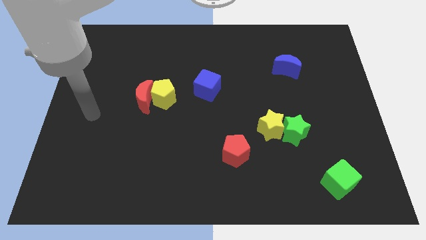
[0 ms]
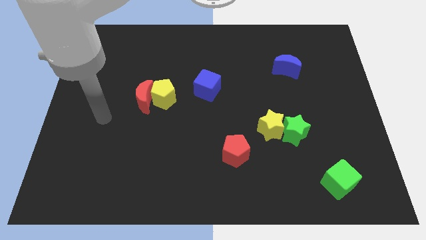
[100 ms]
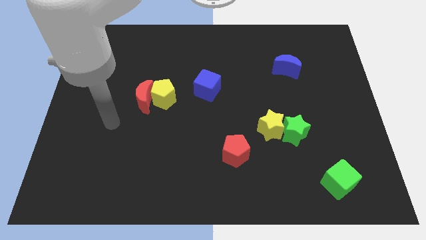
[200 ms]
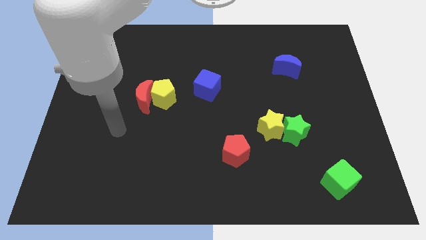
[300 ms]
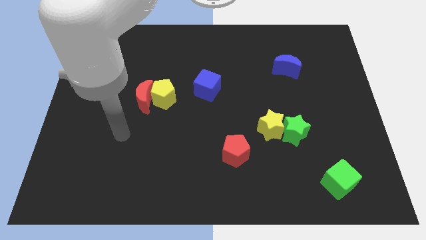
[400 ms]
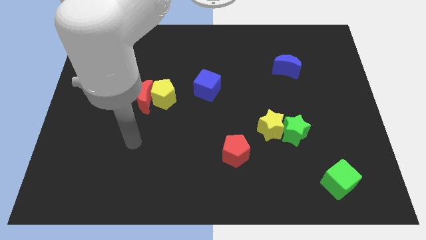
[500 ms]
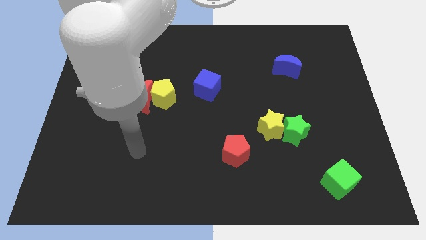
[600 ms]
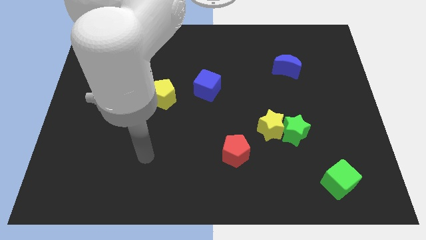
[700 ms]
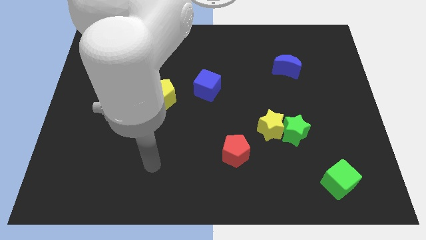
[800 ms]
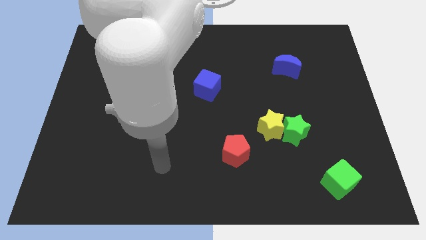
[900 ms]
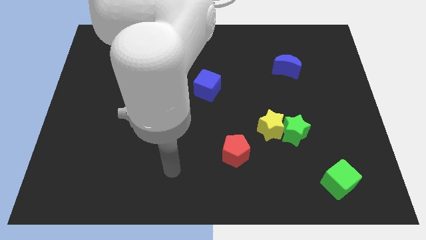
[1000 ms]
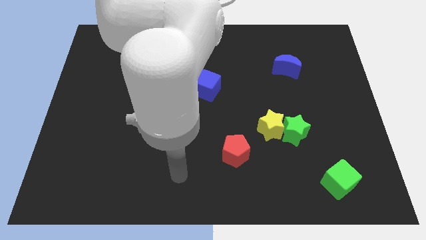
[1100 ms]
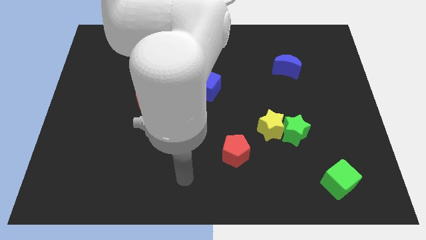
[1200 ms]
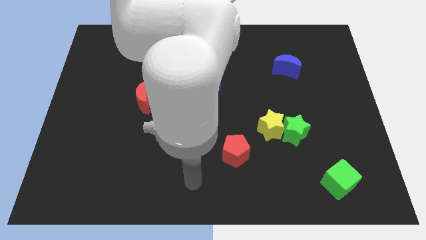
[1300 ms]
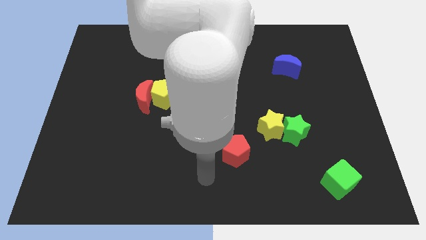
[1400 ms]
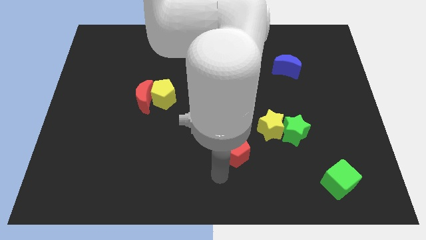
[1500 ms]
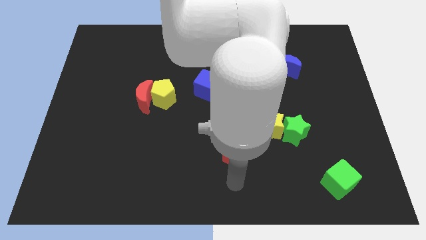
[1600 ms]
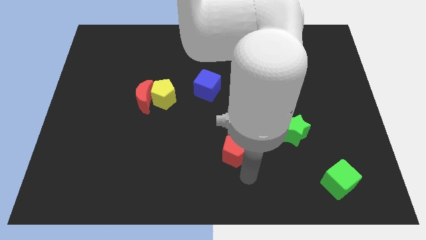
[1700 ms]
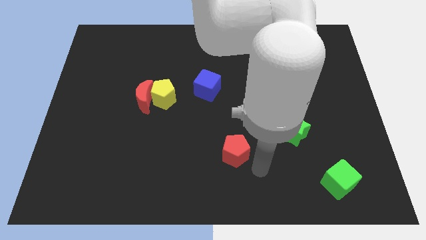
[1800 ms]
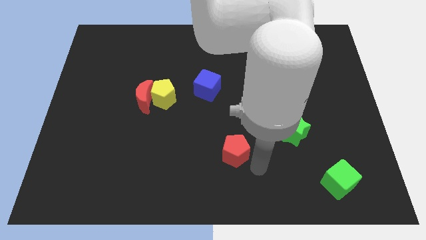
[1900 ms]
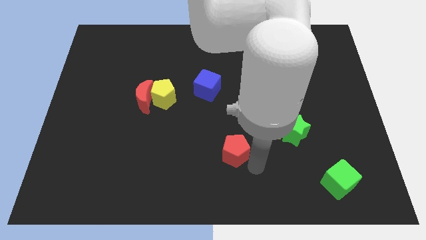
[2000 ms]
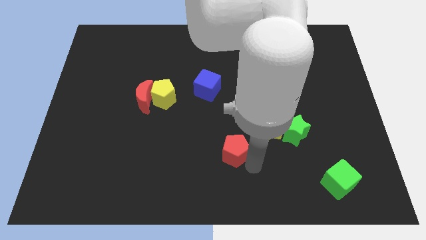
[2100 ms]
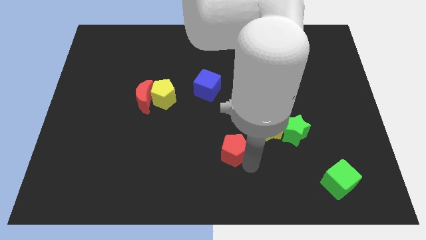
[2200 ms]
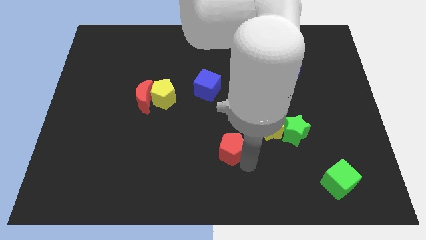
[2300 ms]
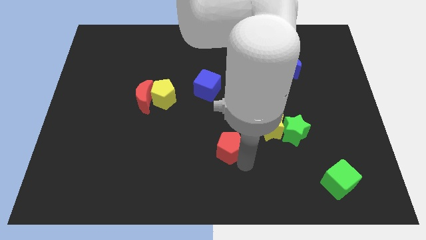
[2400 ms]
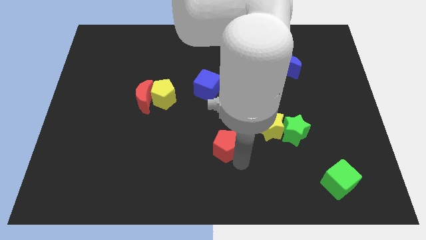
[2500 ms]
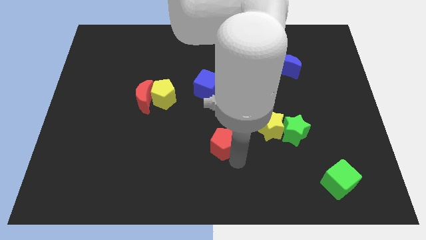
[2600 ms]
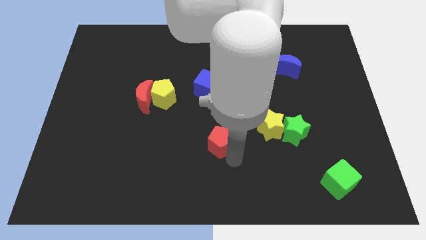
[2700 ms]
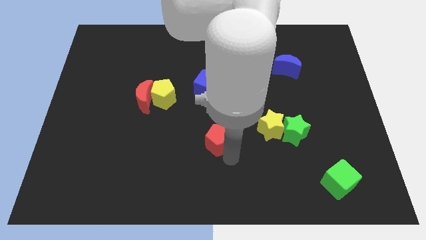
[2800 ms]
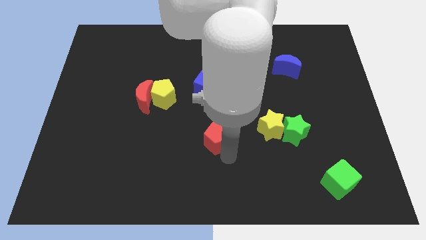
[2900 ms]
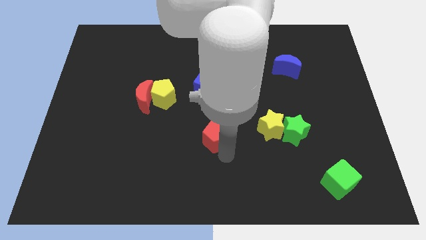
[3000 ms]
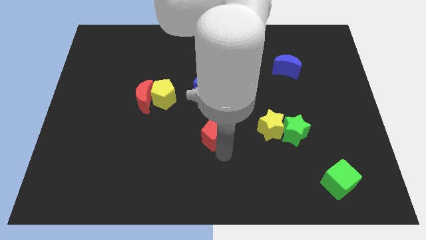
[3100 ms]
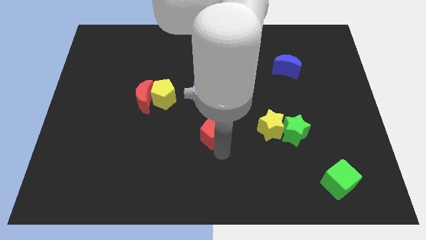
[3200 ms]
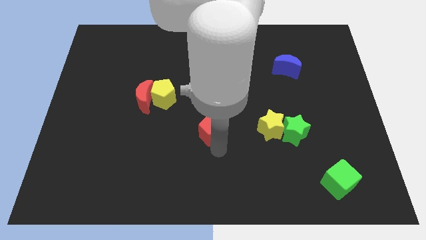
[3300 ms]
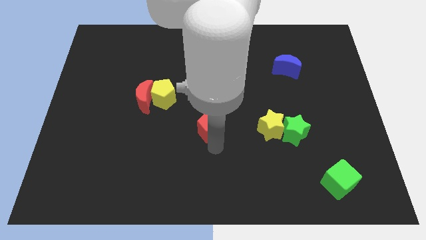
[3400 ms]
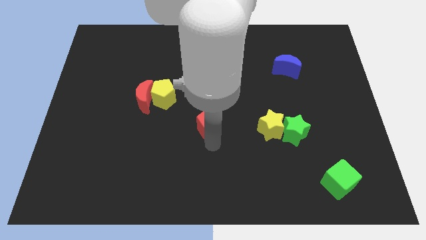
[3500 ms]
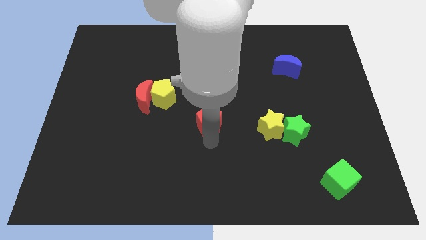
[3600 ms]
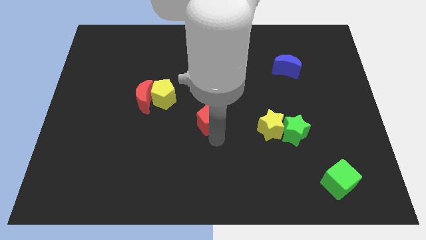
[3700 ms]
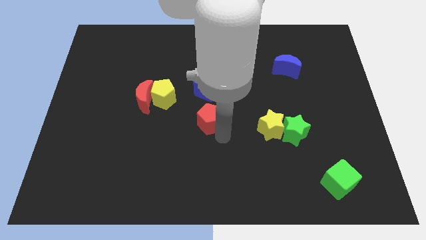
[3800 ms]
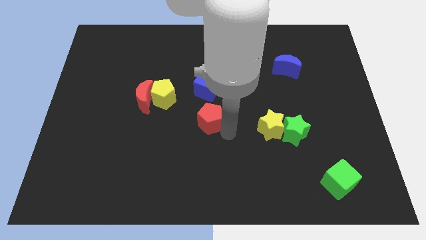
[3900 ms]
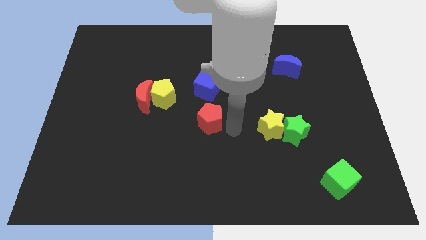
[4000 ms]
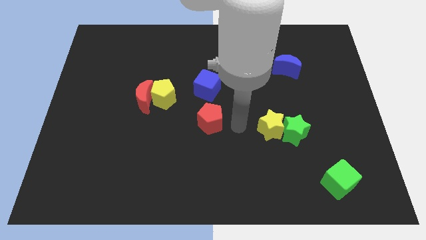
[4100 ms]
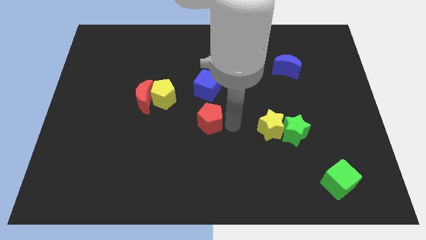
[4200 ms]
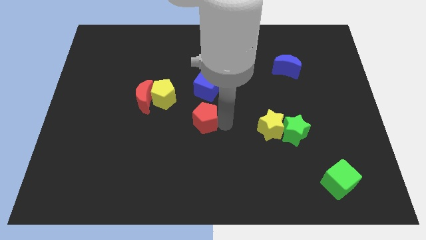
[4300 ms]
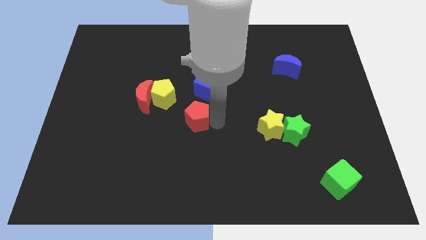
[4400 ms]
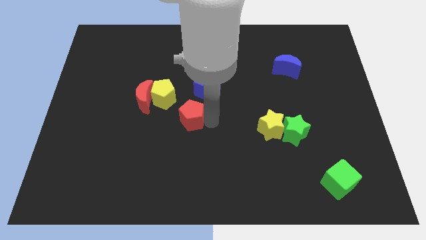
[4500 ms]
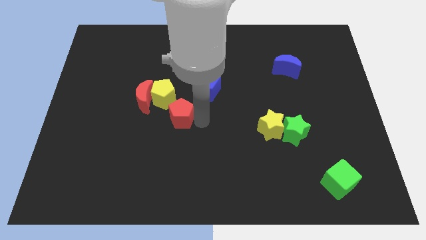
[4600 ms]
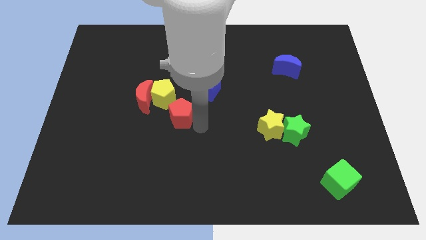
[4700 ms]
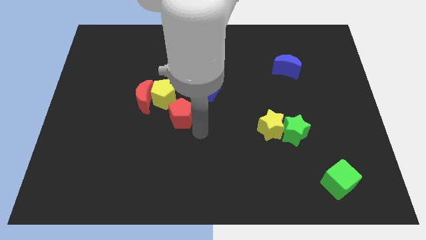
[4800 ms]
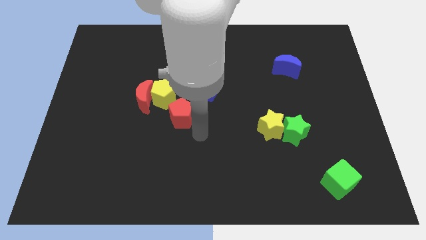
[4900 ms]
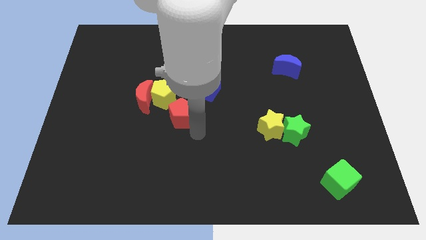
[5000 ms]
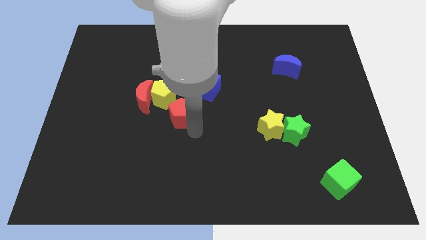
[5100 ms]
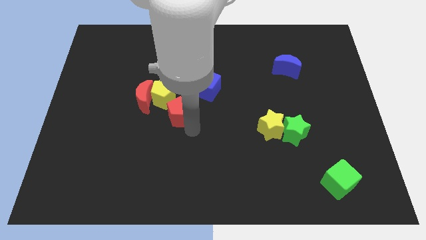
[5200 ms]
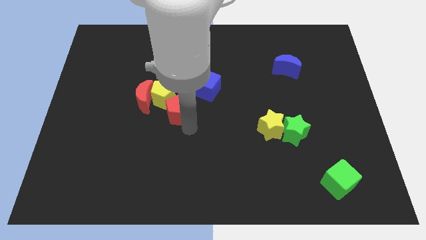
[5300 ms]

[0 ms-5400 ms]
push the red pentagon close to the yellow pentagon

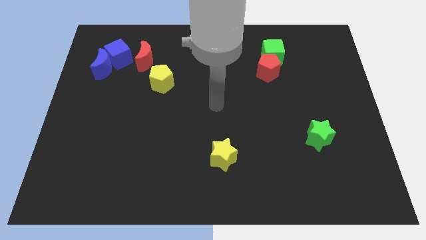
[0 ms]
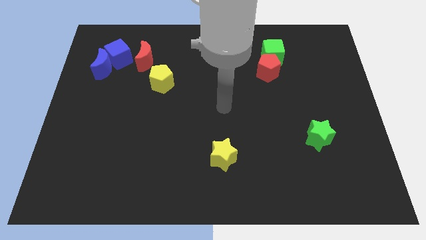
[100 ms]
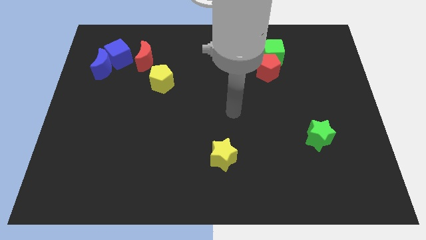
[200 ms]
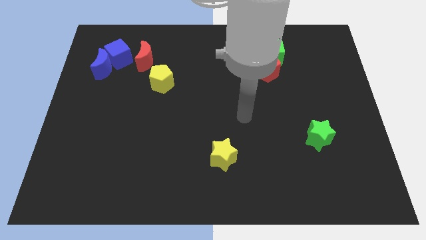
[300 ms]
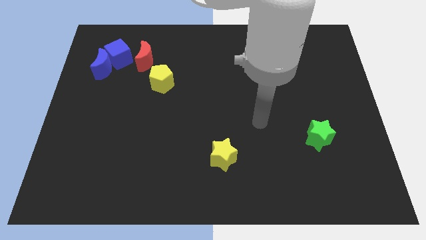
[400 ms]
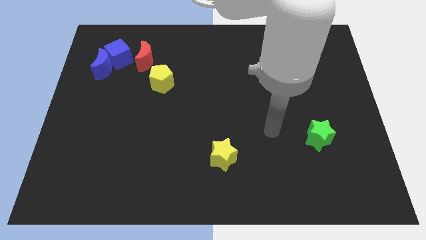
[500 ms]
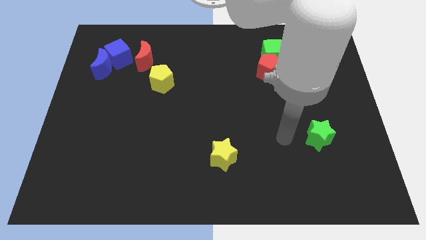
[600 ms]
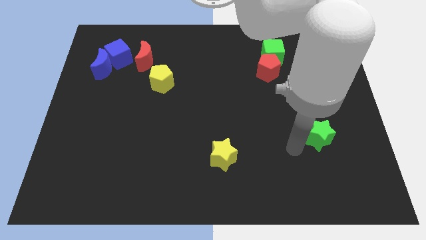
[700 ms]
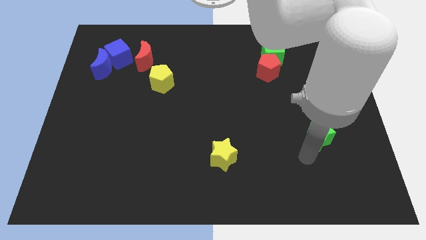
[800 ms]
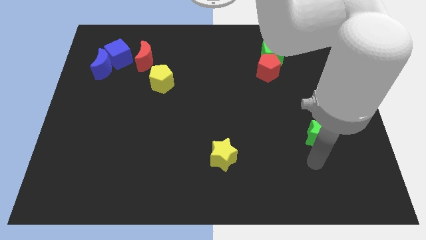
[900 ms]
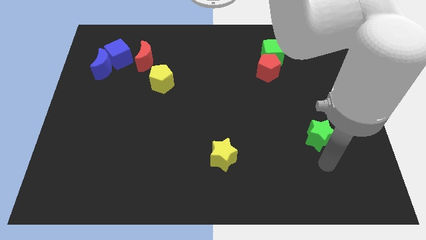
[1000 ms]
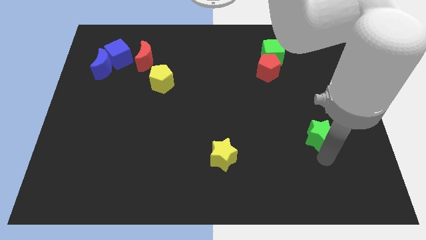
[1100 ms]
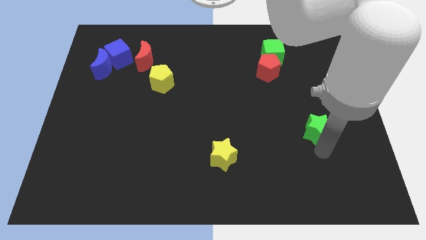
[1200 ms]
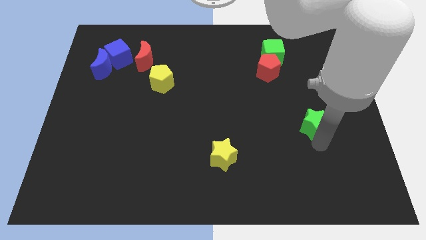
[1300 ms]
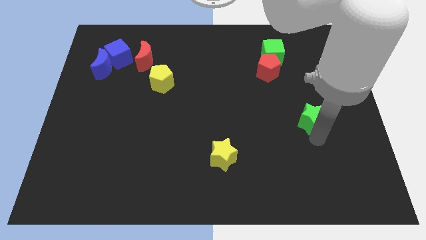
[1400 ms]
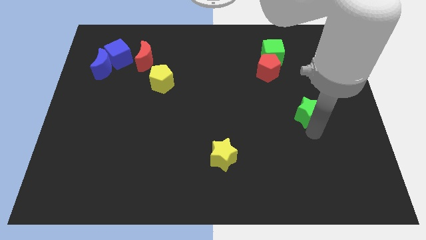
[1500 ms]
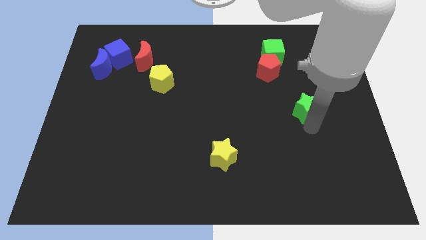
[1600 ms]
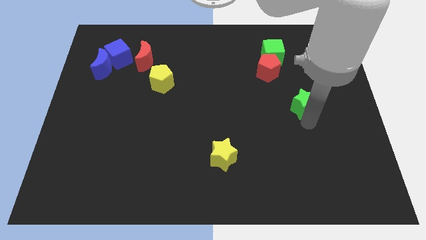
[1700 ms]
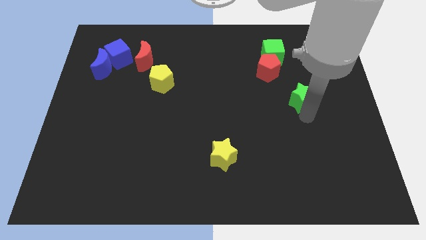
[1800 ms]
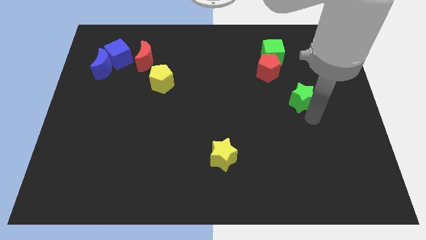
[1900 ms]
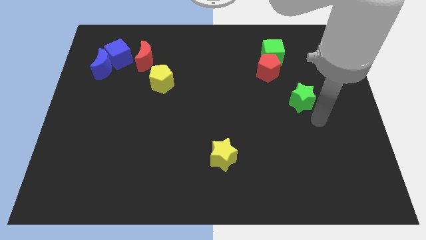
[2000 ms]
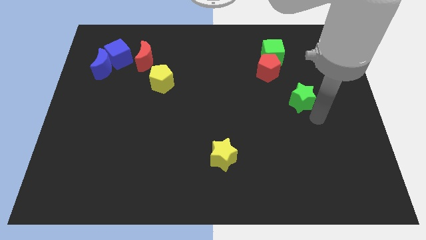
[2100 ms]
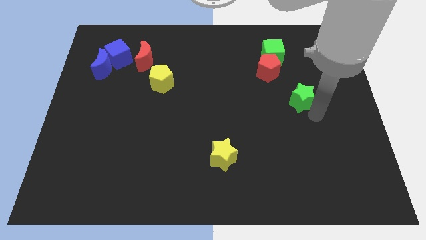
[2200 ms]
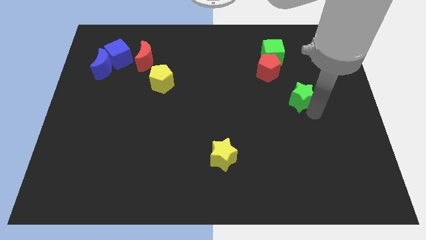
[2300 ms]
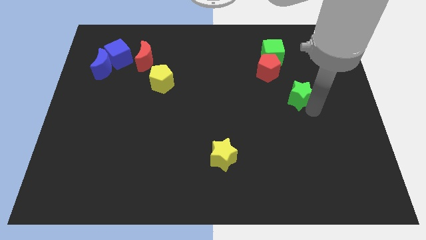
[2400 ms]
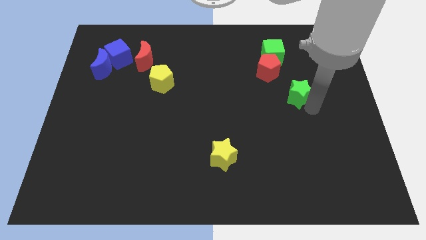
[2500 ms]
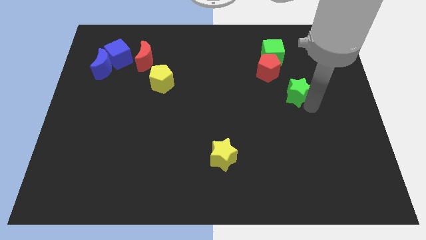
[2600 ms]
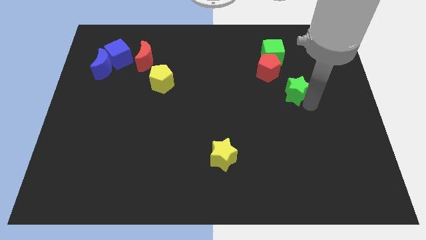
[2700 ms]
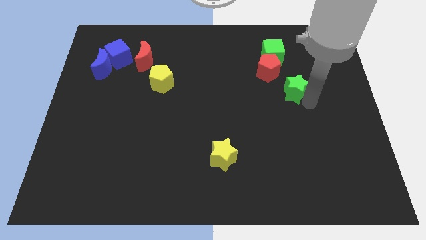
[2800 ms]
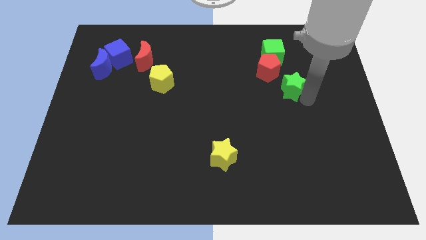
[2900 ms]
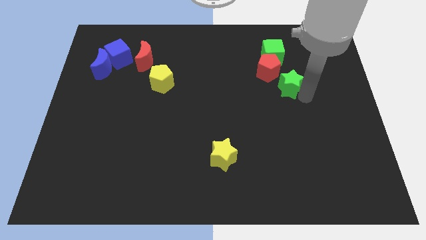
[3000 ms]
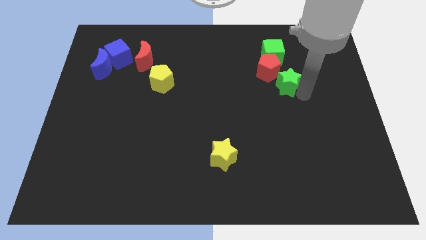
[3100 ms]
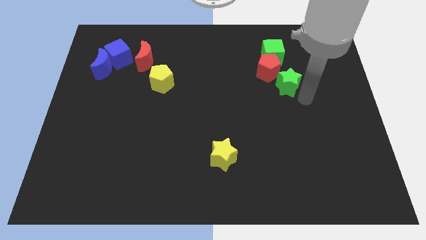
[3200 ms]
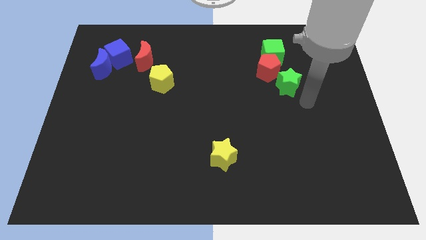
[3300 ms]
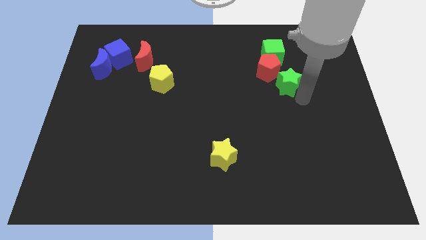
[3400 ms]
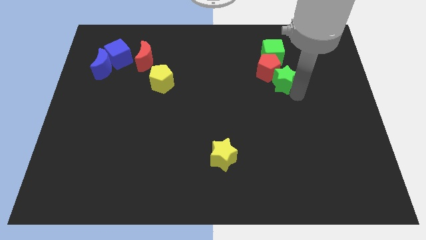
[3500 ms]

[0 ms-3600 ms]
slide the green star to the red pentagon
